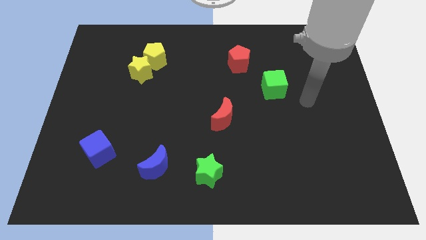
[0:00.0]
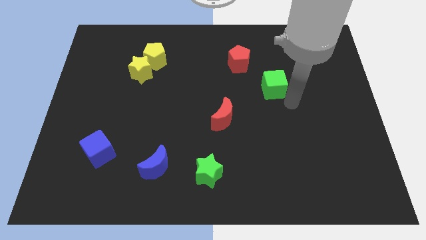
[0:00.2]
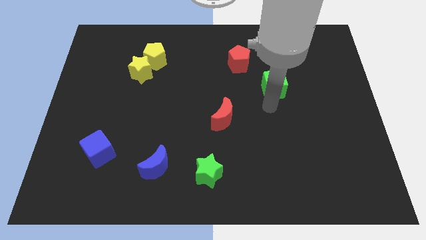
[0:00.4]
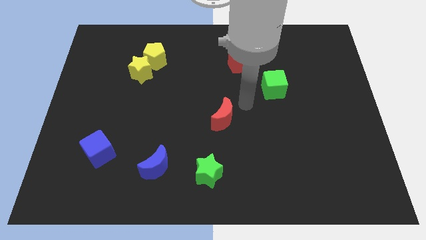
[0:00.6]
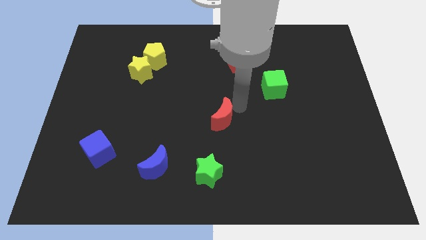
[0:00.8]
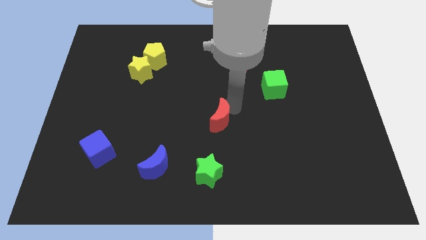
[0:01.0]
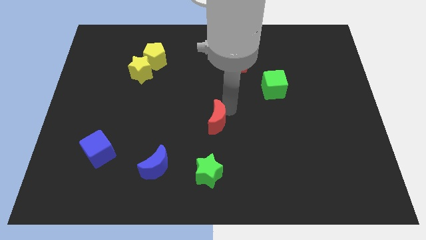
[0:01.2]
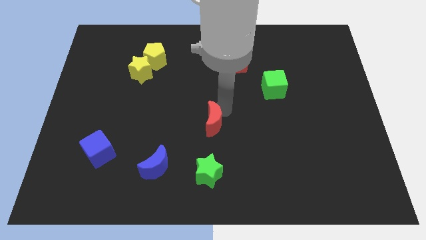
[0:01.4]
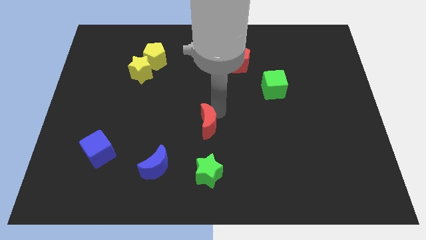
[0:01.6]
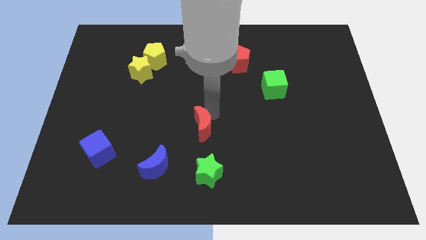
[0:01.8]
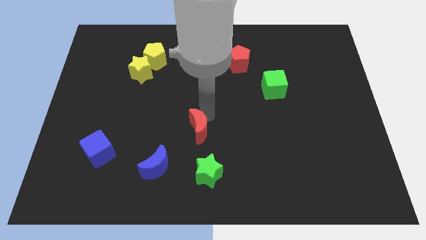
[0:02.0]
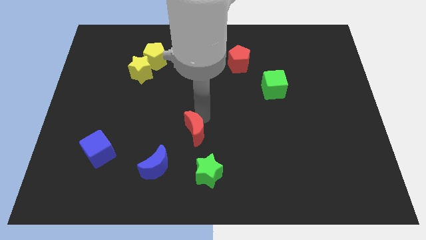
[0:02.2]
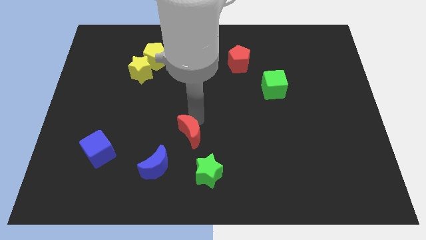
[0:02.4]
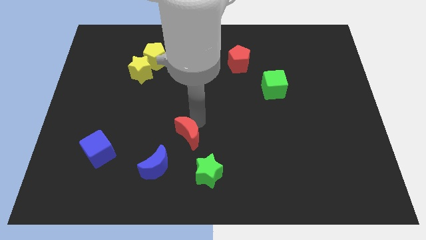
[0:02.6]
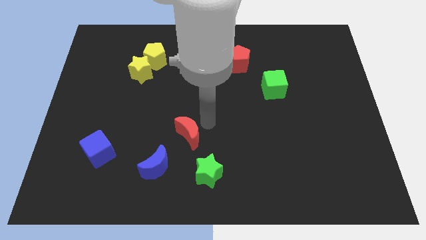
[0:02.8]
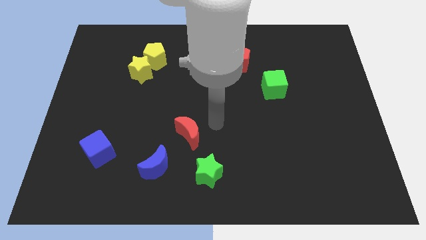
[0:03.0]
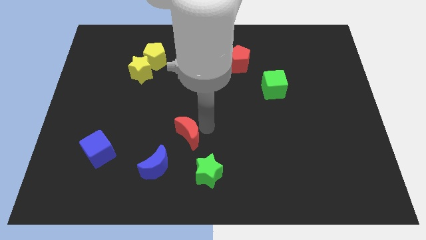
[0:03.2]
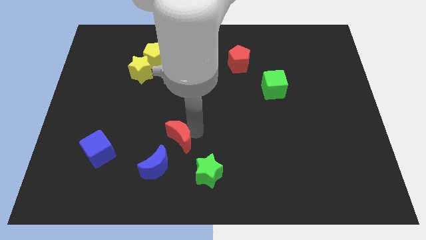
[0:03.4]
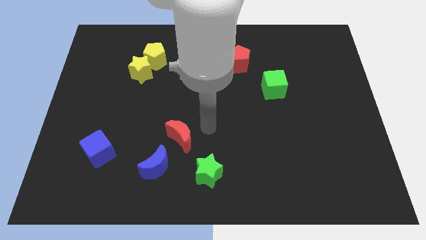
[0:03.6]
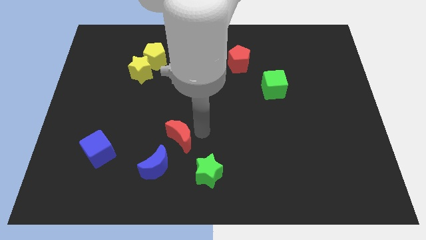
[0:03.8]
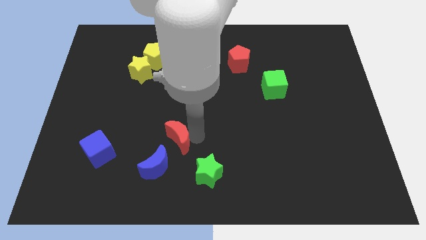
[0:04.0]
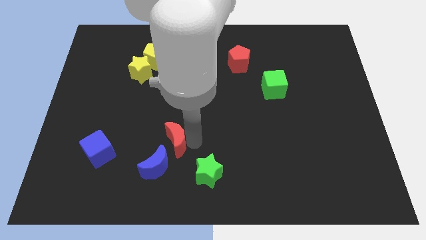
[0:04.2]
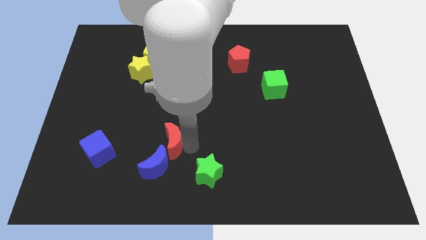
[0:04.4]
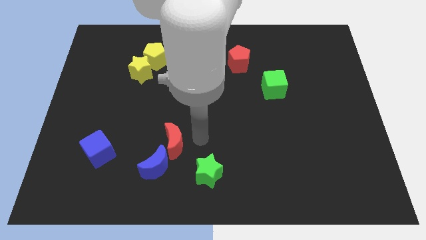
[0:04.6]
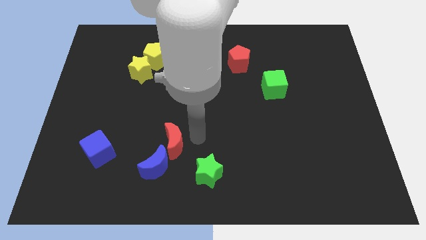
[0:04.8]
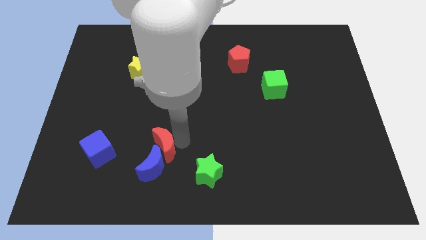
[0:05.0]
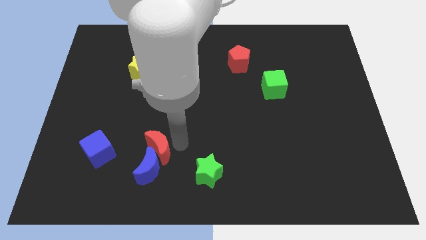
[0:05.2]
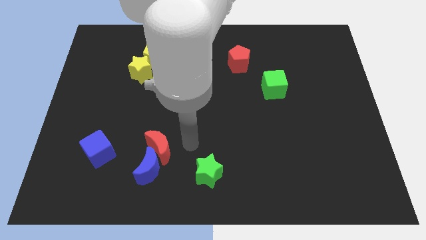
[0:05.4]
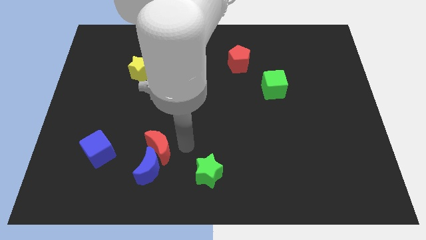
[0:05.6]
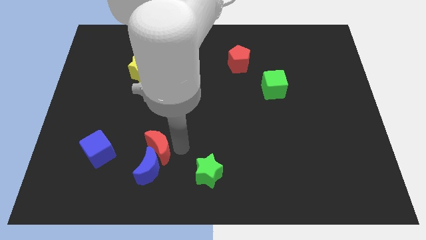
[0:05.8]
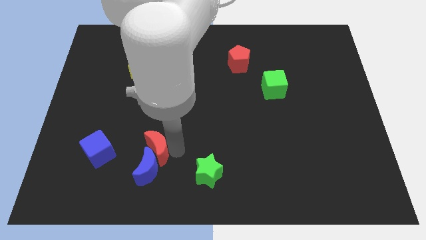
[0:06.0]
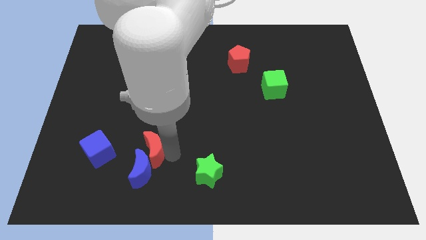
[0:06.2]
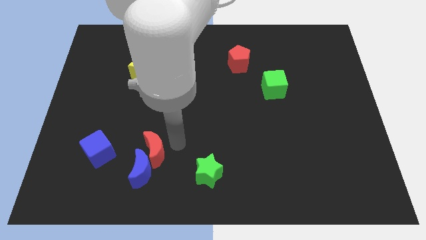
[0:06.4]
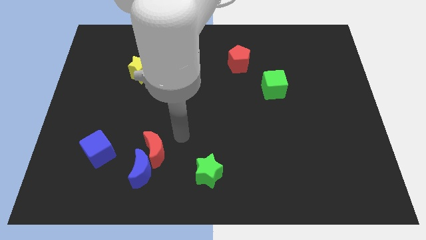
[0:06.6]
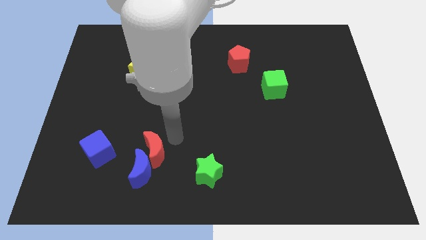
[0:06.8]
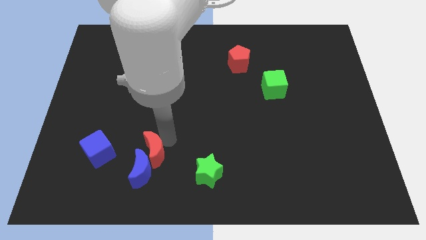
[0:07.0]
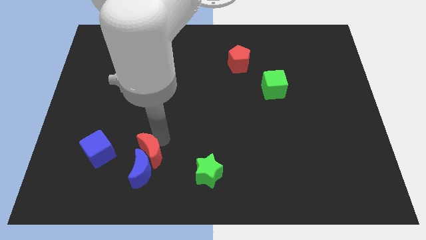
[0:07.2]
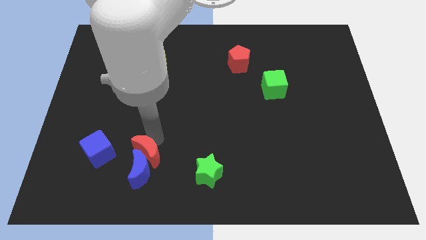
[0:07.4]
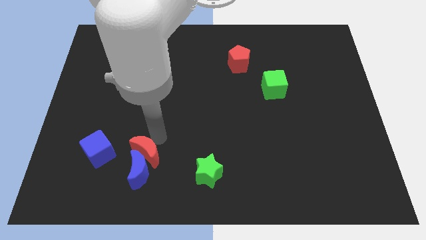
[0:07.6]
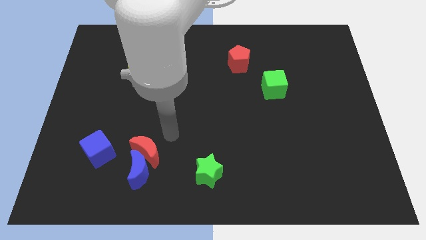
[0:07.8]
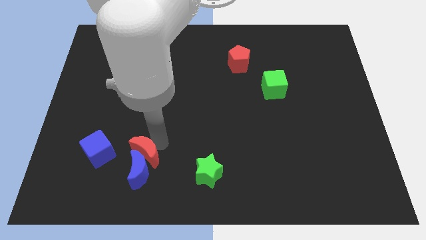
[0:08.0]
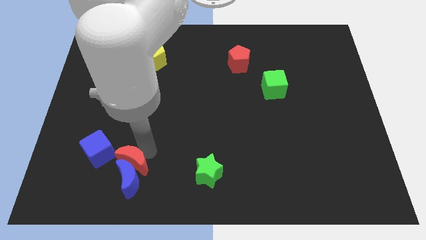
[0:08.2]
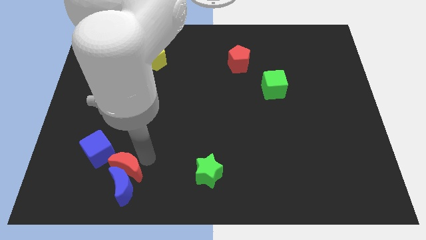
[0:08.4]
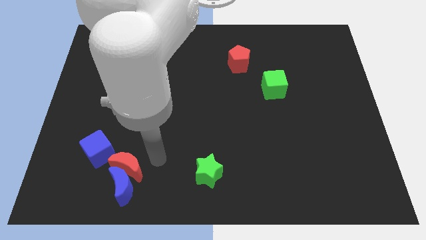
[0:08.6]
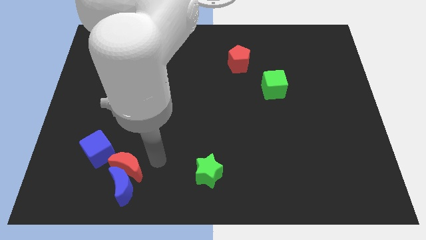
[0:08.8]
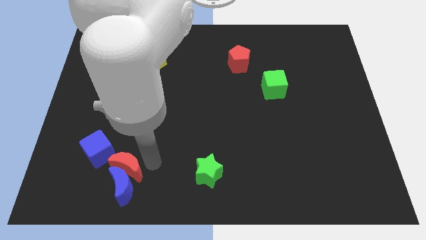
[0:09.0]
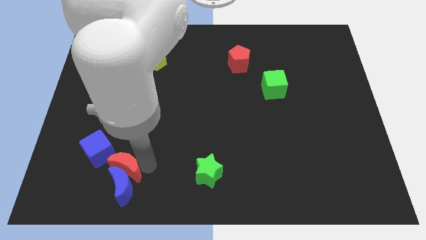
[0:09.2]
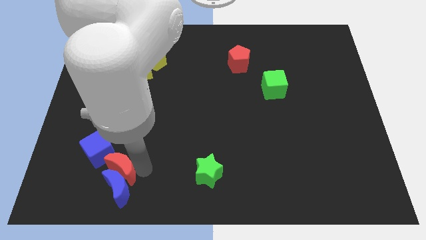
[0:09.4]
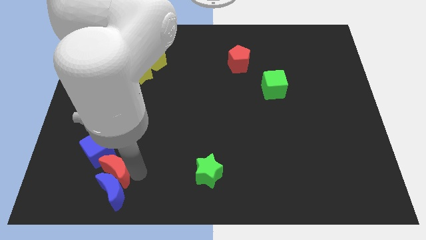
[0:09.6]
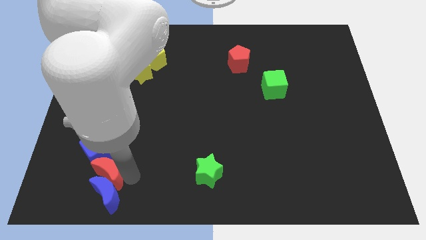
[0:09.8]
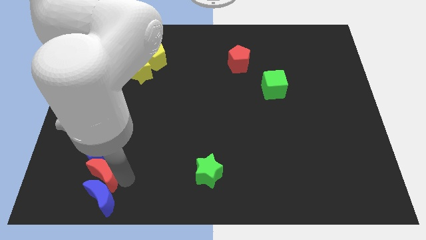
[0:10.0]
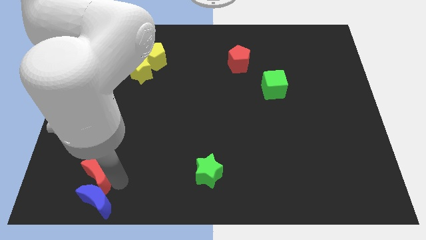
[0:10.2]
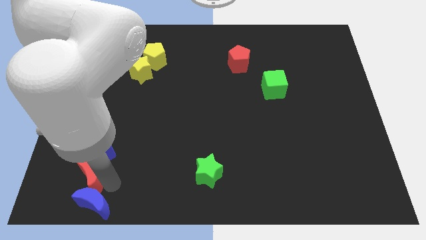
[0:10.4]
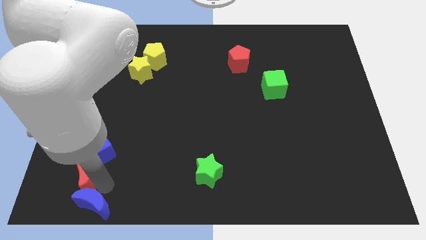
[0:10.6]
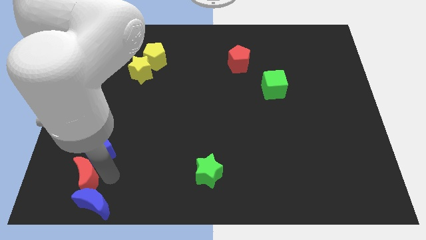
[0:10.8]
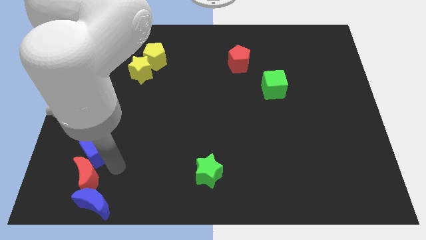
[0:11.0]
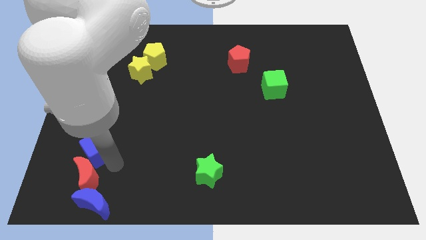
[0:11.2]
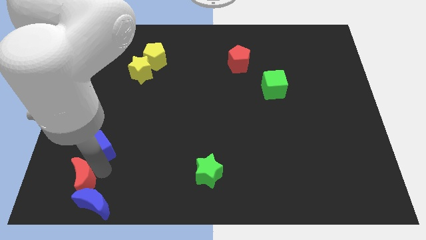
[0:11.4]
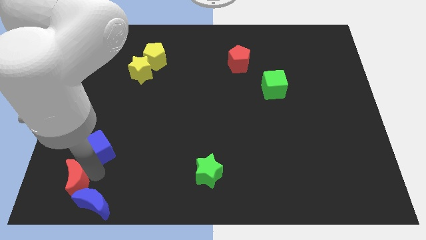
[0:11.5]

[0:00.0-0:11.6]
put the red moon to the bottom left

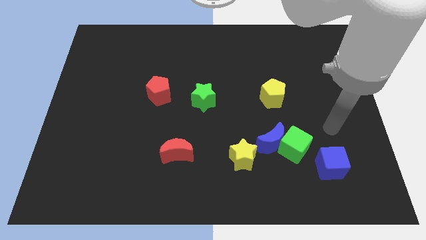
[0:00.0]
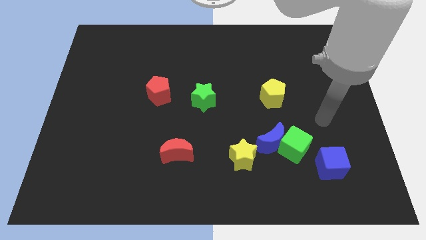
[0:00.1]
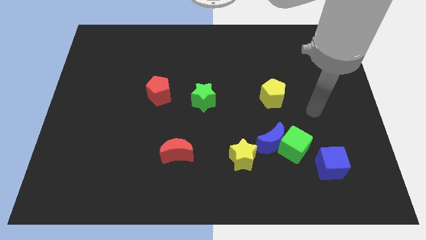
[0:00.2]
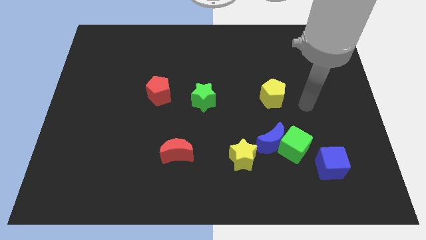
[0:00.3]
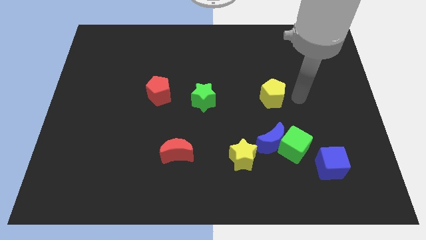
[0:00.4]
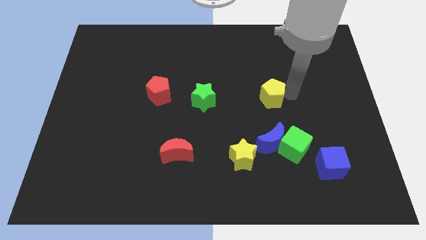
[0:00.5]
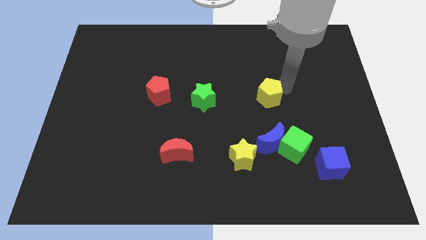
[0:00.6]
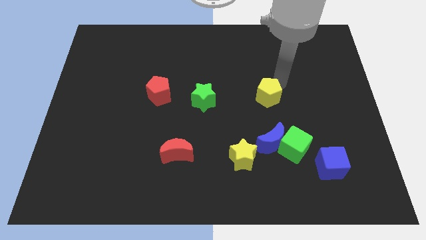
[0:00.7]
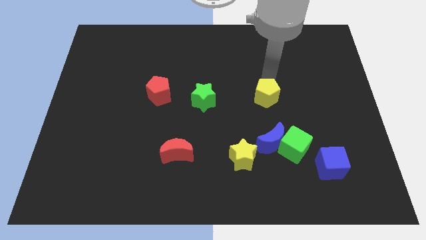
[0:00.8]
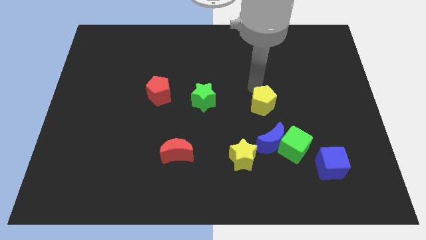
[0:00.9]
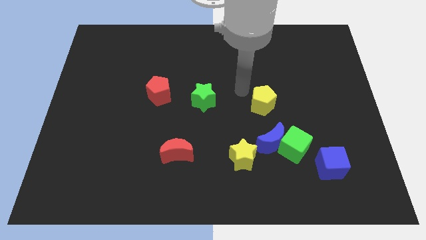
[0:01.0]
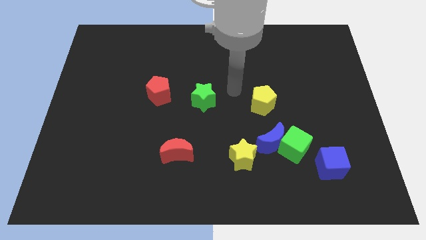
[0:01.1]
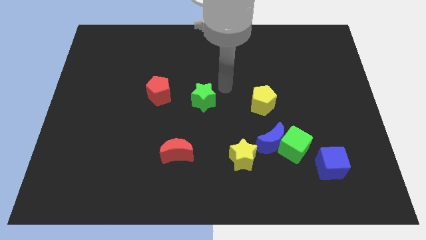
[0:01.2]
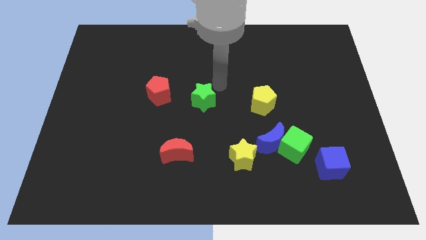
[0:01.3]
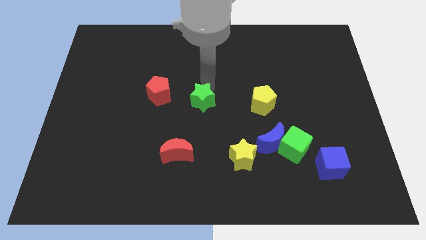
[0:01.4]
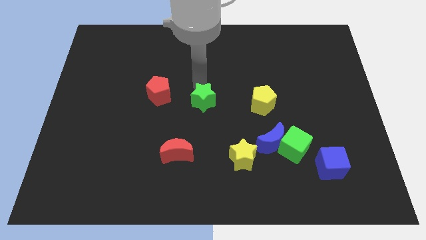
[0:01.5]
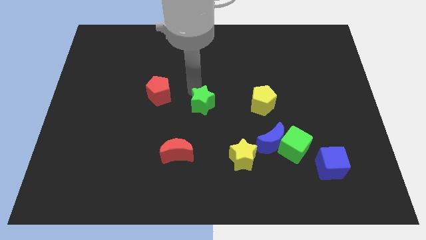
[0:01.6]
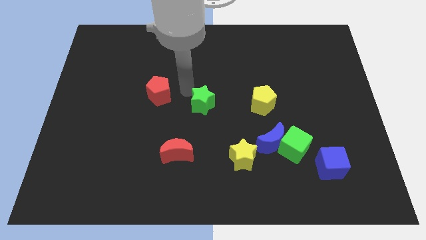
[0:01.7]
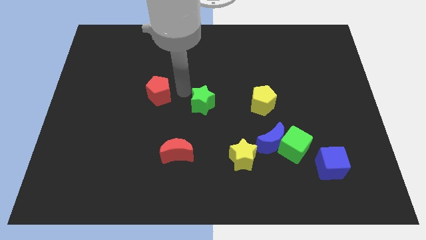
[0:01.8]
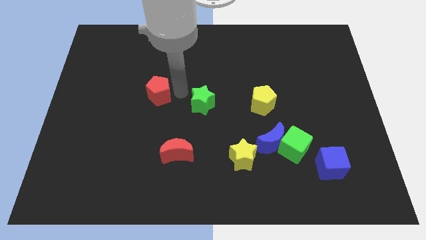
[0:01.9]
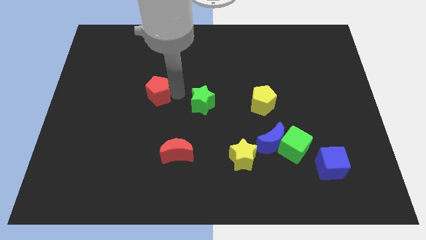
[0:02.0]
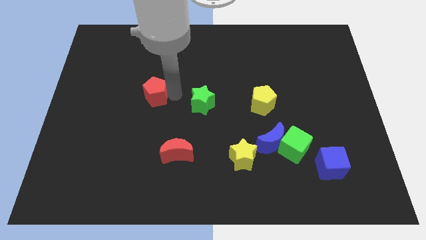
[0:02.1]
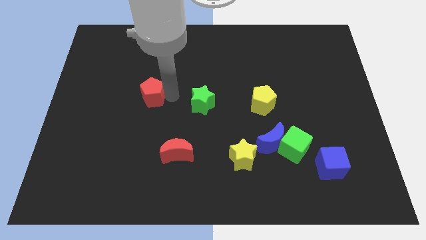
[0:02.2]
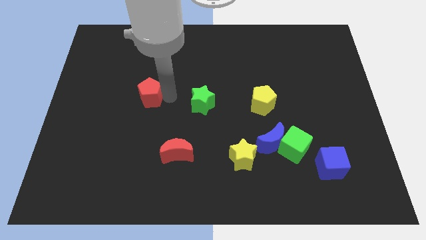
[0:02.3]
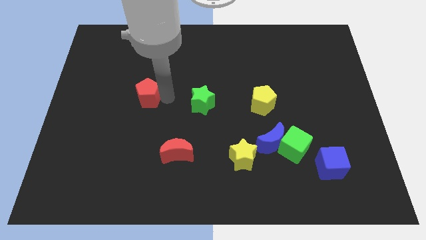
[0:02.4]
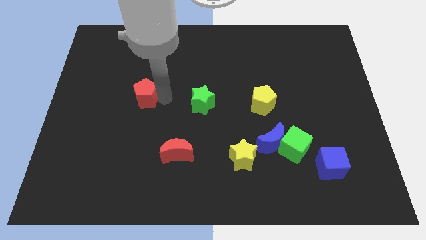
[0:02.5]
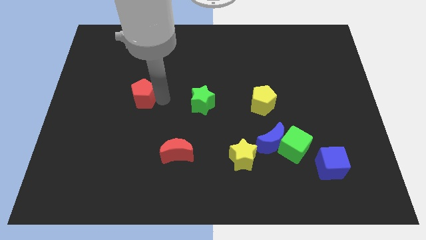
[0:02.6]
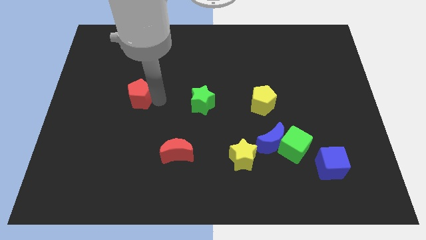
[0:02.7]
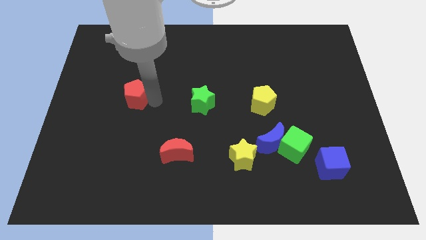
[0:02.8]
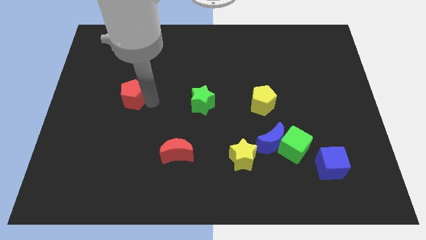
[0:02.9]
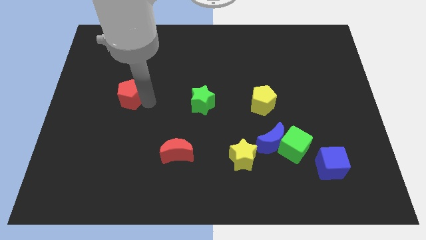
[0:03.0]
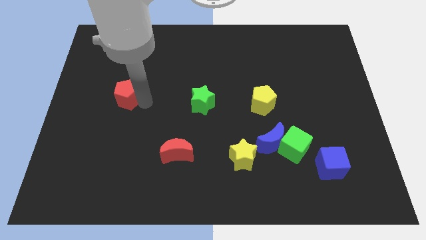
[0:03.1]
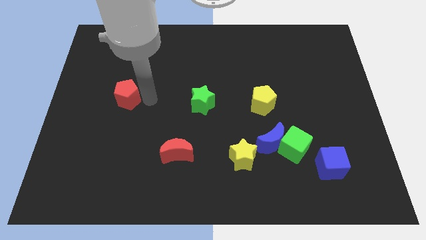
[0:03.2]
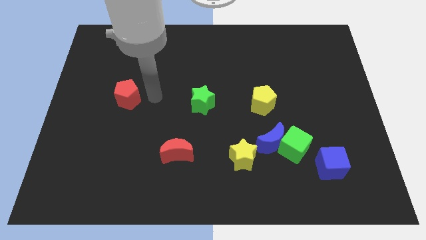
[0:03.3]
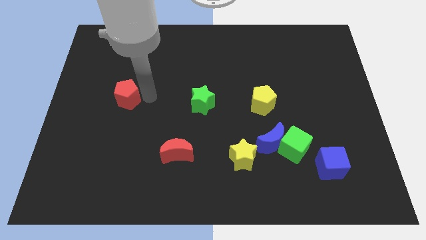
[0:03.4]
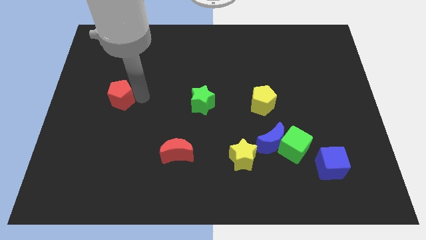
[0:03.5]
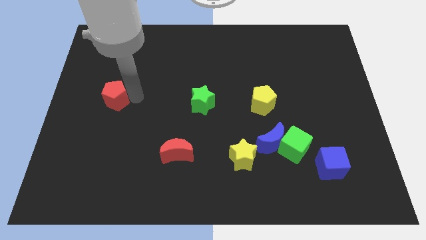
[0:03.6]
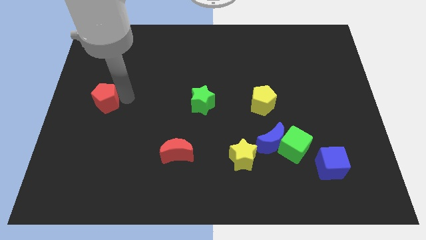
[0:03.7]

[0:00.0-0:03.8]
move the red pentagon to the center left
